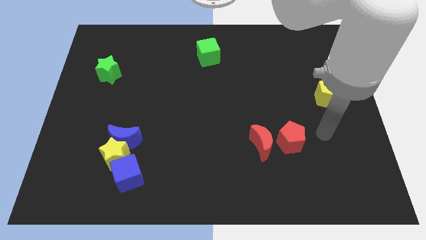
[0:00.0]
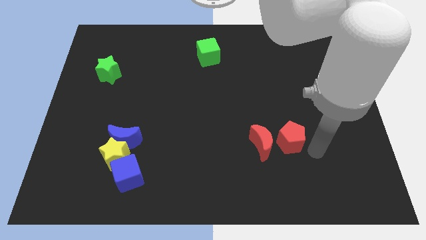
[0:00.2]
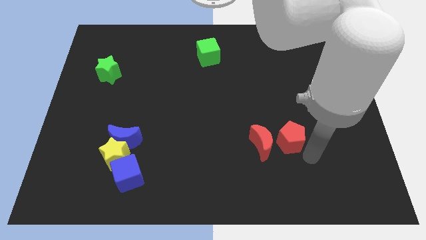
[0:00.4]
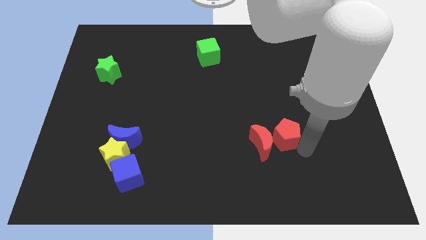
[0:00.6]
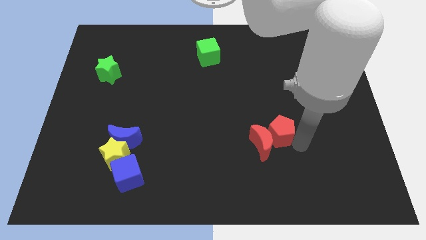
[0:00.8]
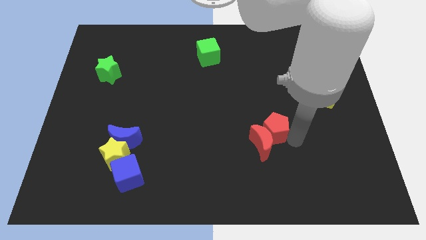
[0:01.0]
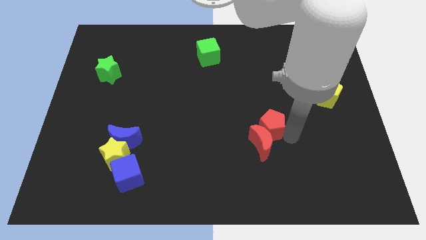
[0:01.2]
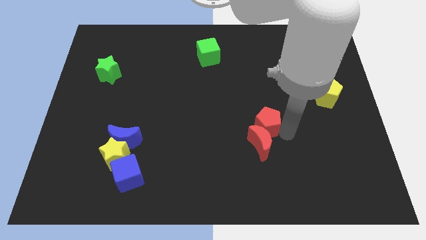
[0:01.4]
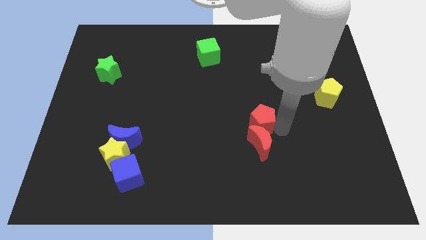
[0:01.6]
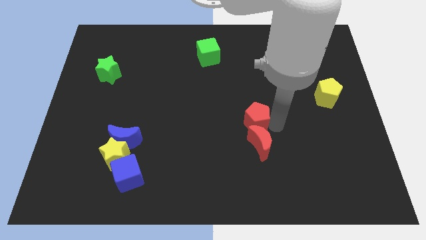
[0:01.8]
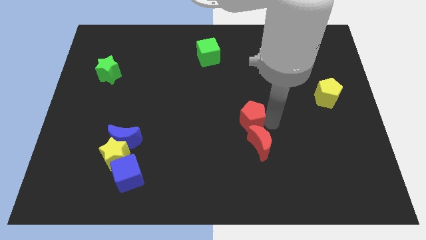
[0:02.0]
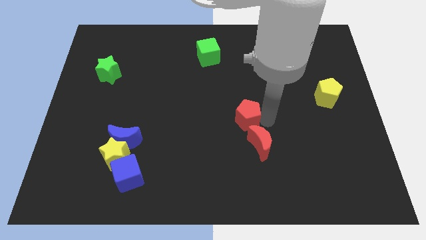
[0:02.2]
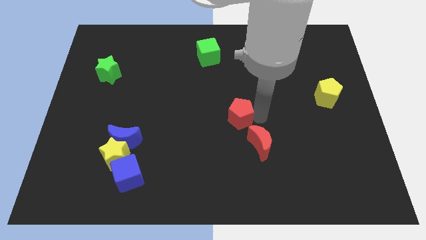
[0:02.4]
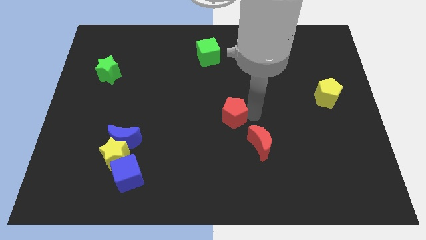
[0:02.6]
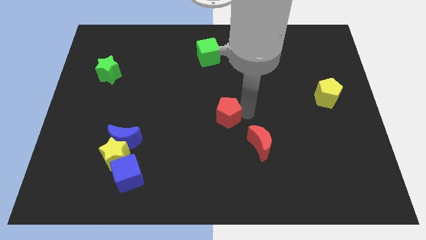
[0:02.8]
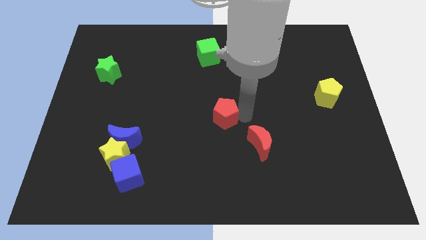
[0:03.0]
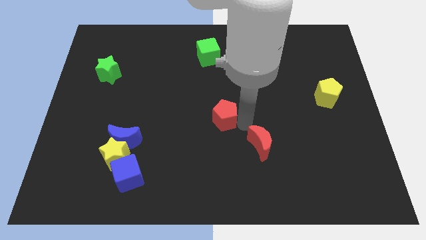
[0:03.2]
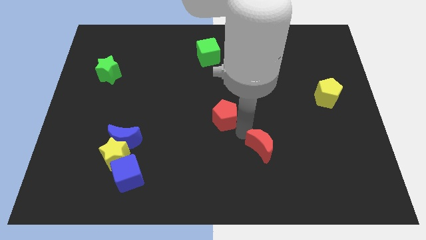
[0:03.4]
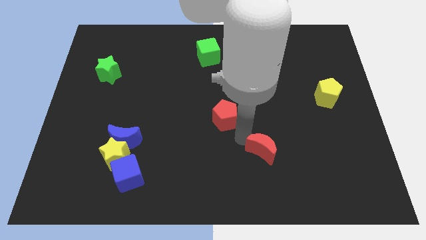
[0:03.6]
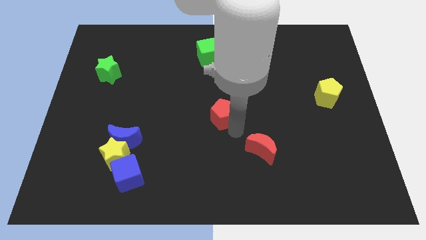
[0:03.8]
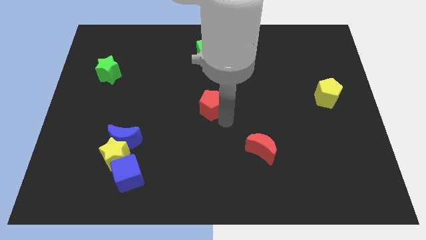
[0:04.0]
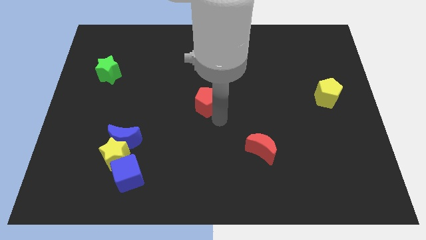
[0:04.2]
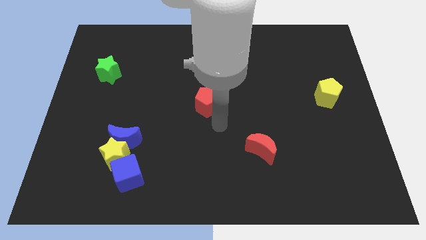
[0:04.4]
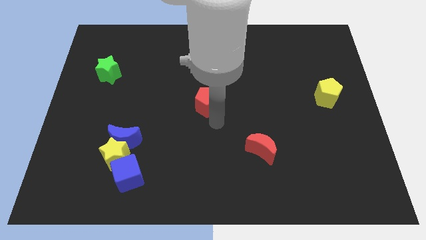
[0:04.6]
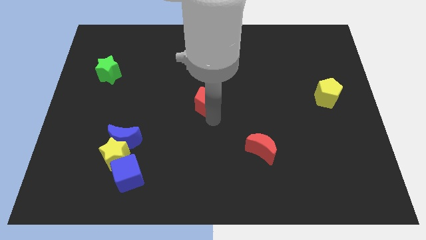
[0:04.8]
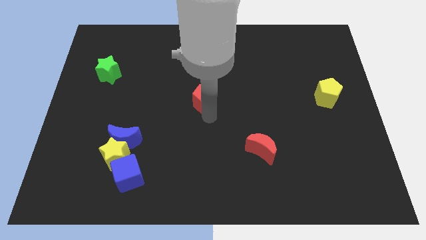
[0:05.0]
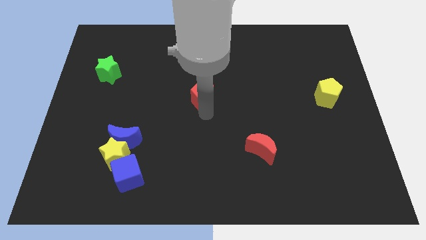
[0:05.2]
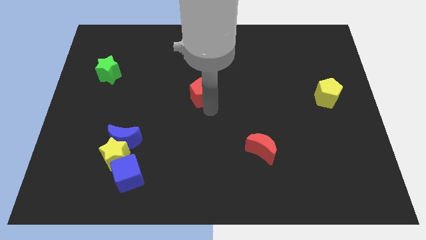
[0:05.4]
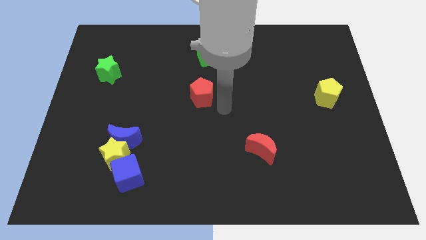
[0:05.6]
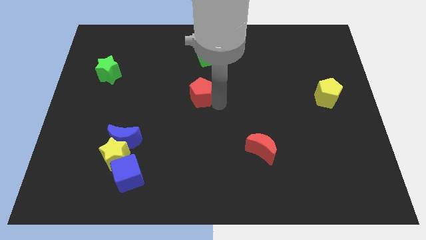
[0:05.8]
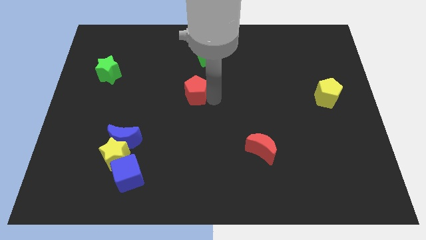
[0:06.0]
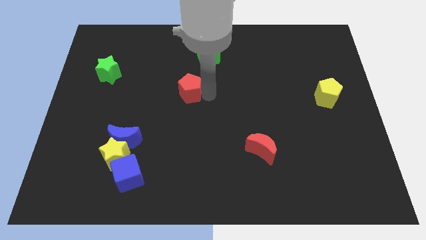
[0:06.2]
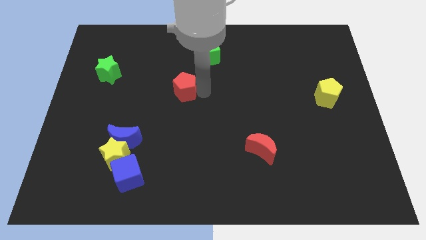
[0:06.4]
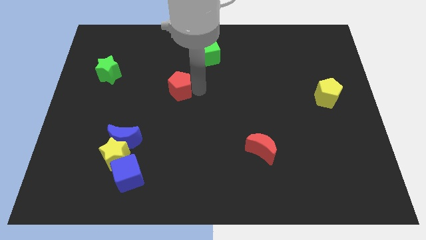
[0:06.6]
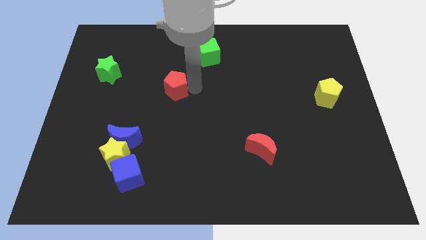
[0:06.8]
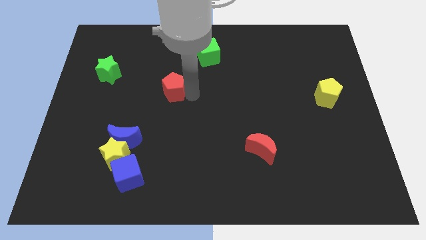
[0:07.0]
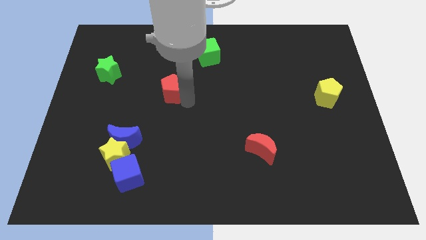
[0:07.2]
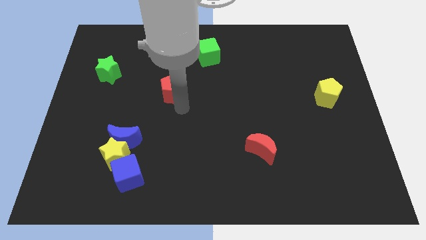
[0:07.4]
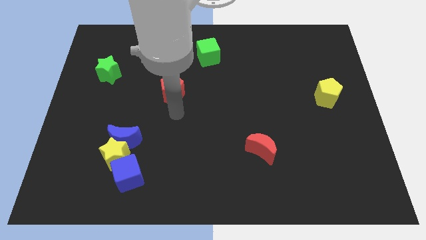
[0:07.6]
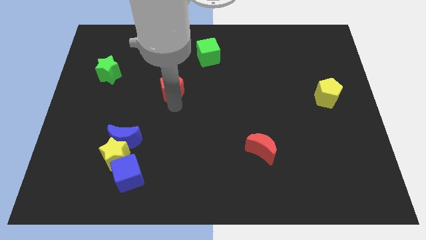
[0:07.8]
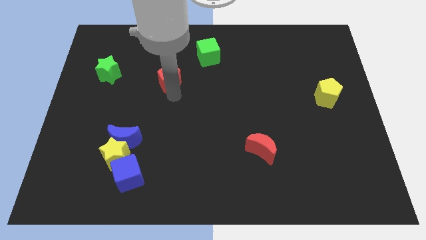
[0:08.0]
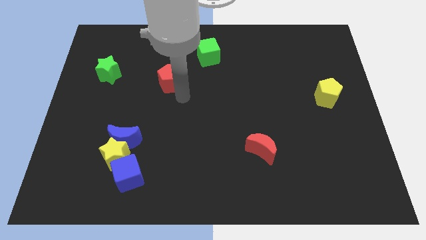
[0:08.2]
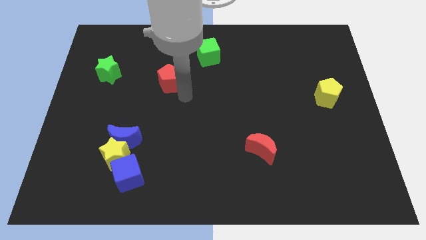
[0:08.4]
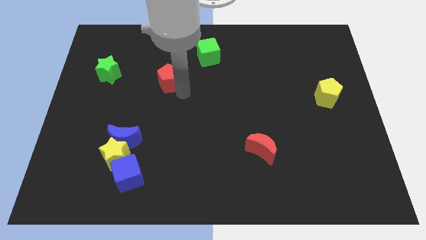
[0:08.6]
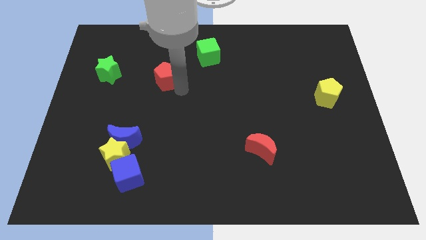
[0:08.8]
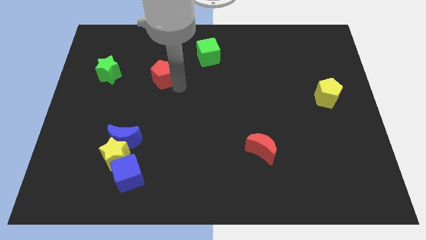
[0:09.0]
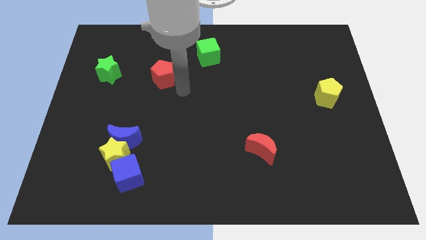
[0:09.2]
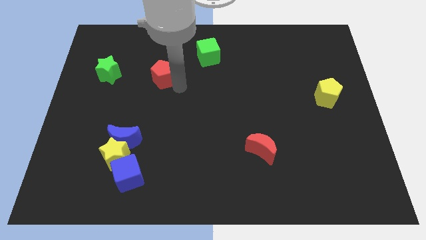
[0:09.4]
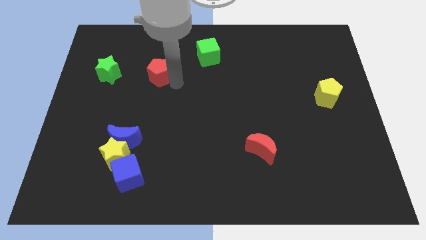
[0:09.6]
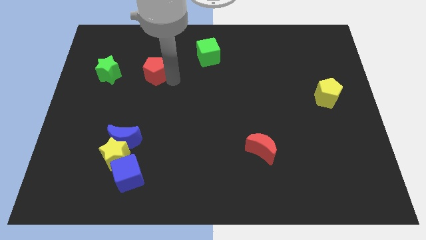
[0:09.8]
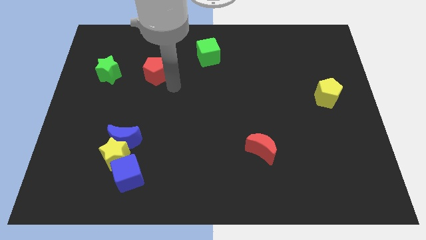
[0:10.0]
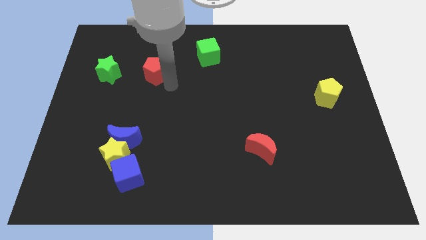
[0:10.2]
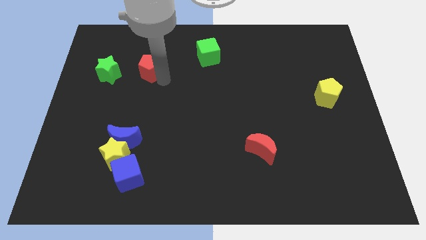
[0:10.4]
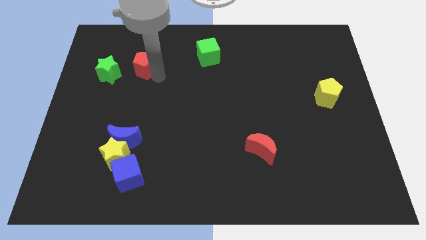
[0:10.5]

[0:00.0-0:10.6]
slide the red pentagon diagonally up and to the right of the green star

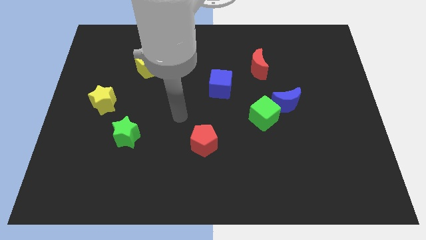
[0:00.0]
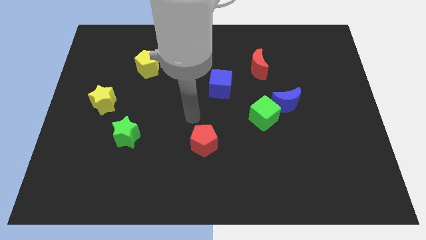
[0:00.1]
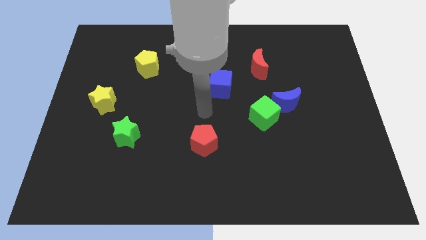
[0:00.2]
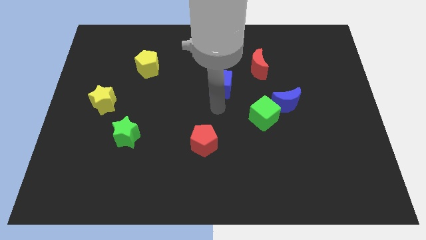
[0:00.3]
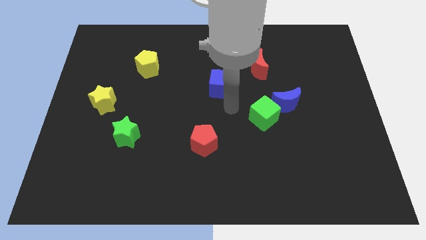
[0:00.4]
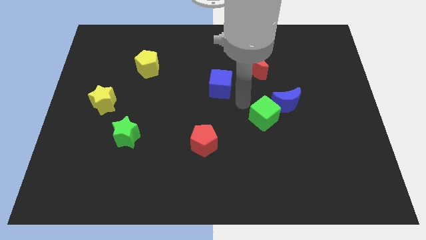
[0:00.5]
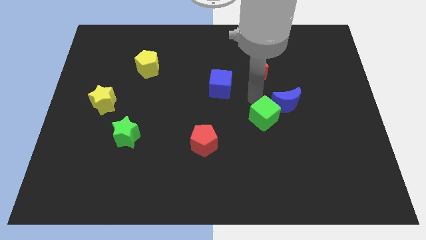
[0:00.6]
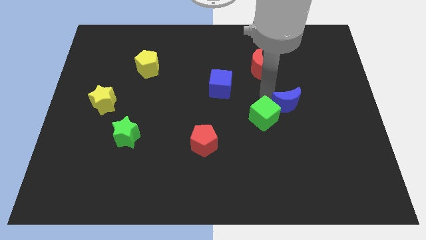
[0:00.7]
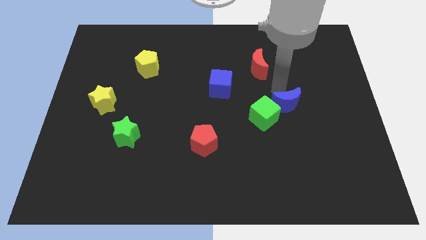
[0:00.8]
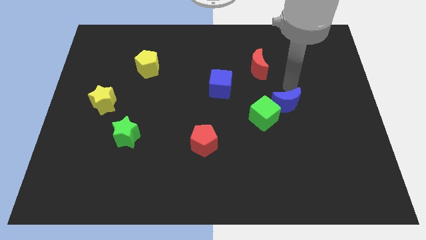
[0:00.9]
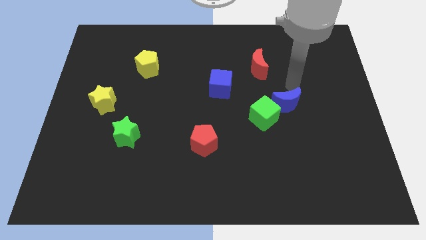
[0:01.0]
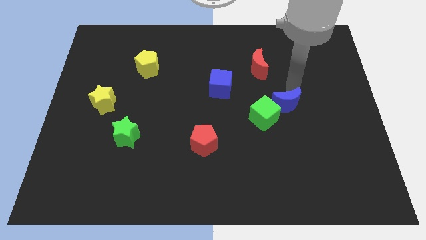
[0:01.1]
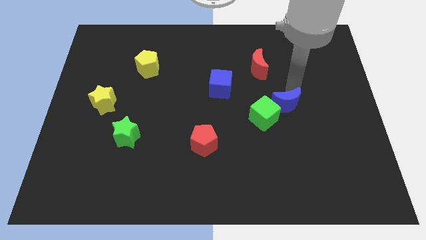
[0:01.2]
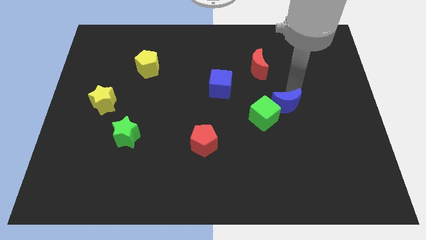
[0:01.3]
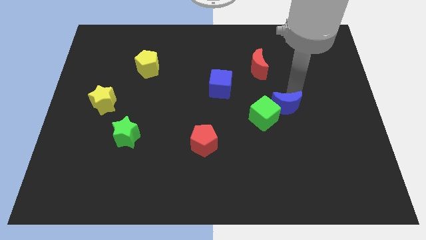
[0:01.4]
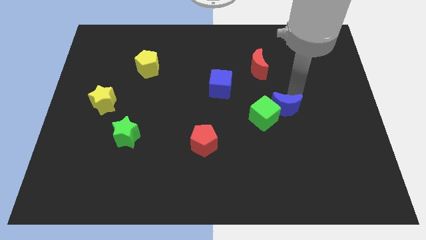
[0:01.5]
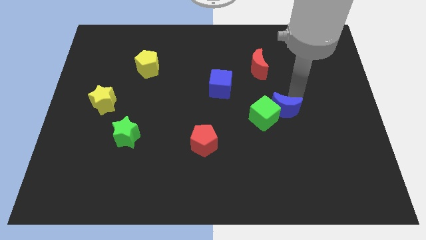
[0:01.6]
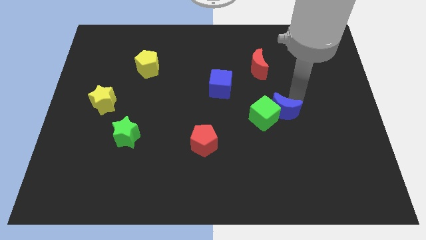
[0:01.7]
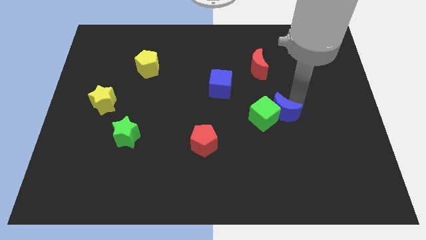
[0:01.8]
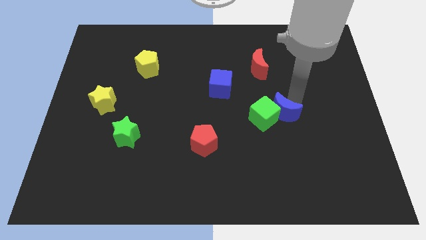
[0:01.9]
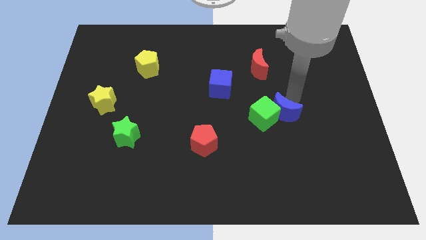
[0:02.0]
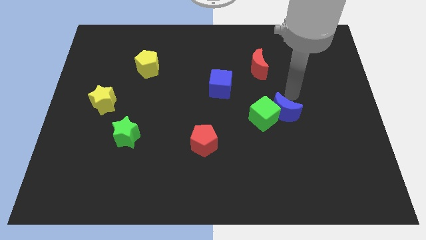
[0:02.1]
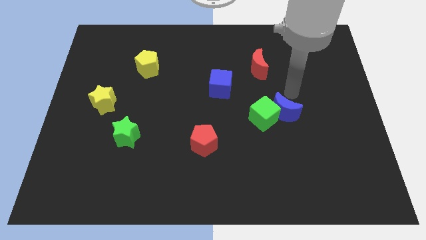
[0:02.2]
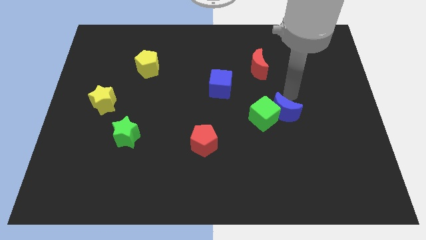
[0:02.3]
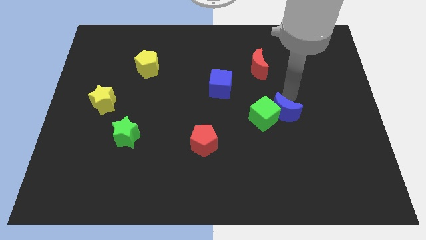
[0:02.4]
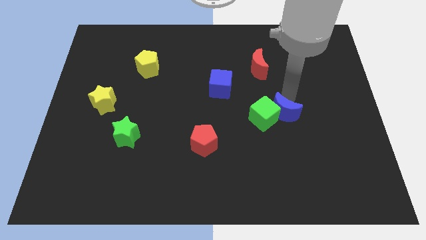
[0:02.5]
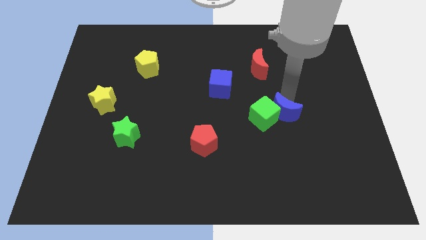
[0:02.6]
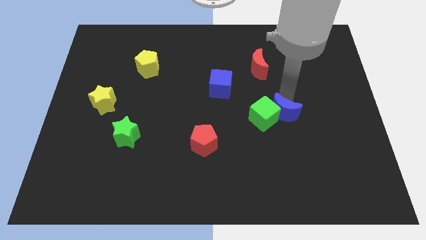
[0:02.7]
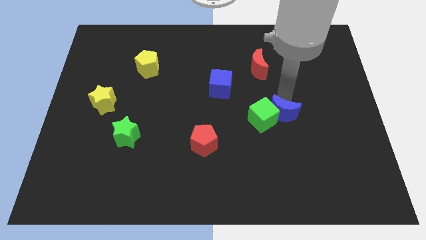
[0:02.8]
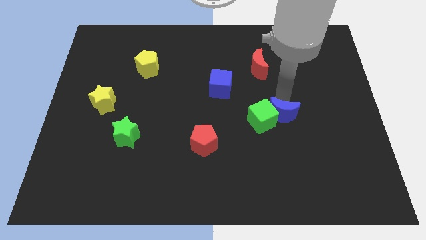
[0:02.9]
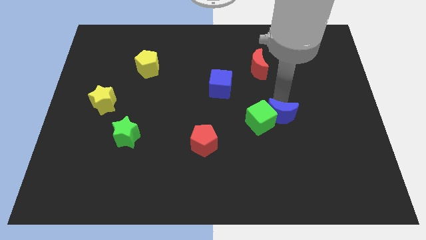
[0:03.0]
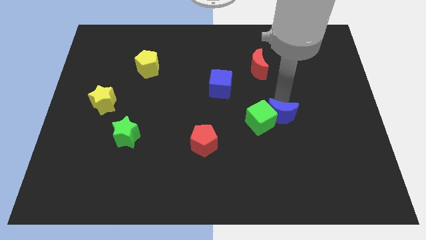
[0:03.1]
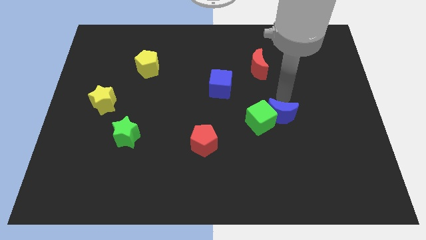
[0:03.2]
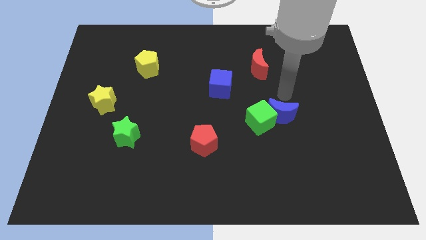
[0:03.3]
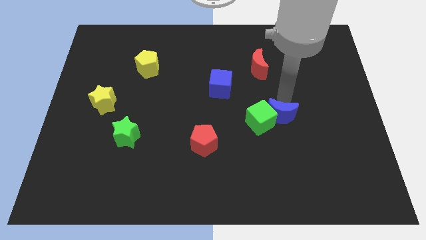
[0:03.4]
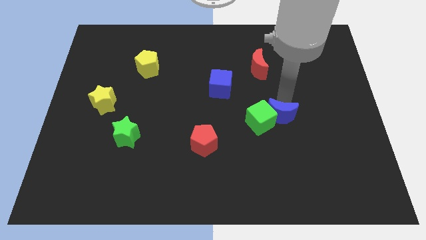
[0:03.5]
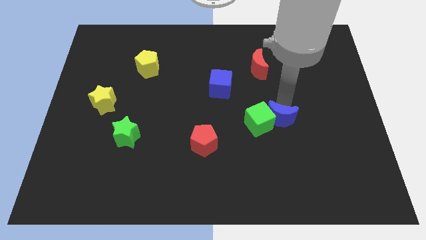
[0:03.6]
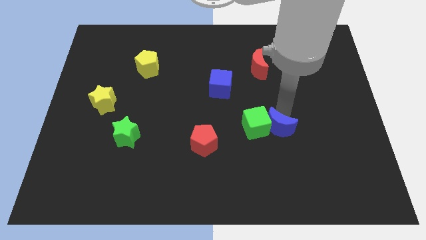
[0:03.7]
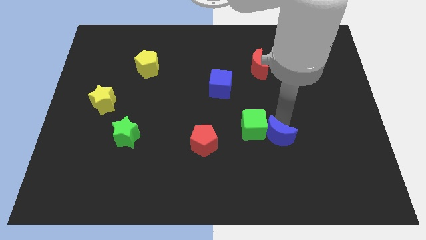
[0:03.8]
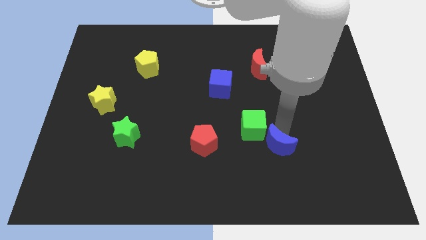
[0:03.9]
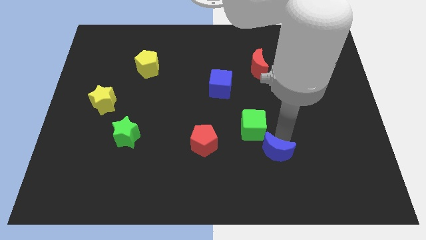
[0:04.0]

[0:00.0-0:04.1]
push the blue moon to the bottom of the green cube
